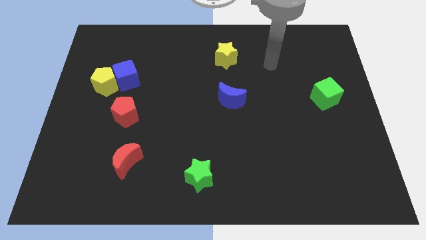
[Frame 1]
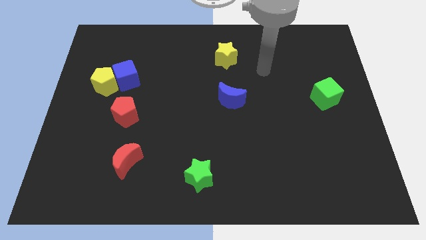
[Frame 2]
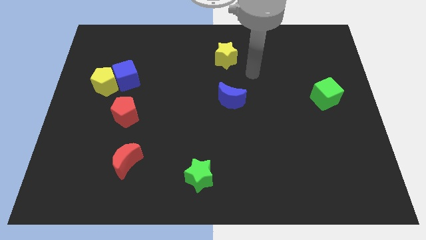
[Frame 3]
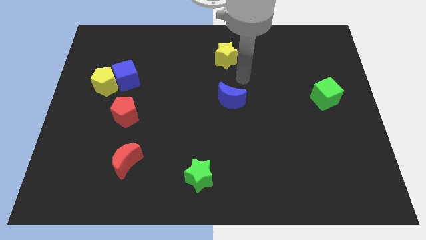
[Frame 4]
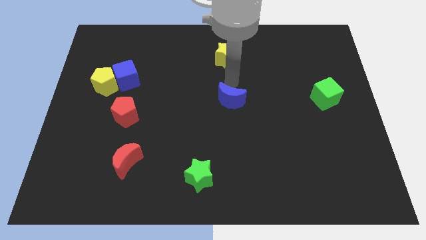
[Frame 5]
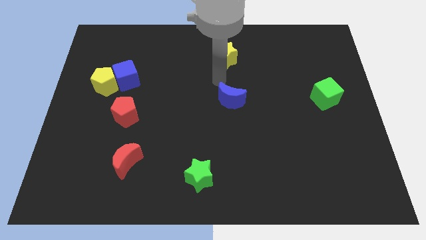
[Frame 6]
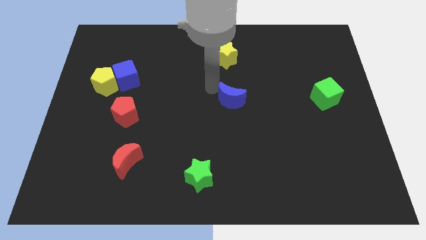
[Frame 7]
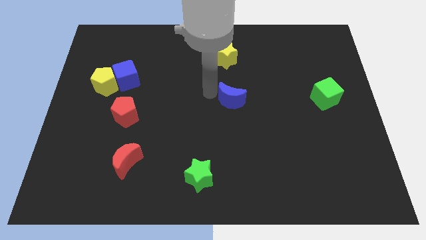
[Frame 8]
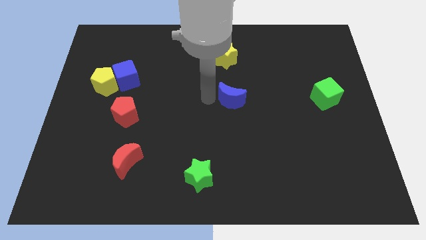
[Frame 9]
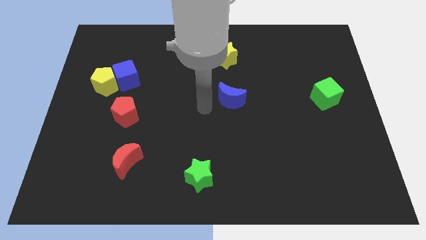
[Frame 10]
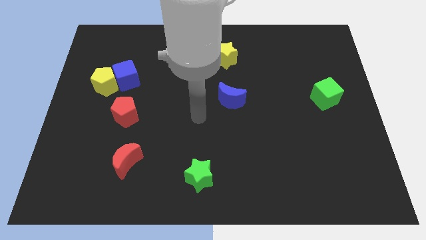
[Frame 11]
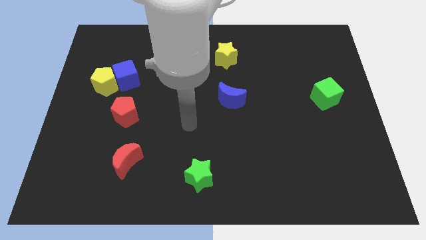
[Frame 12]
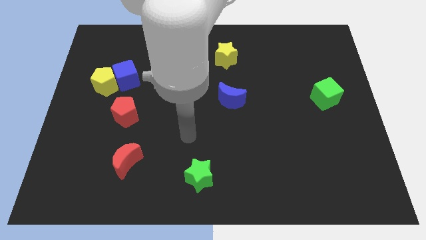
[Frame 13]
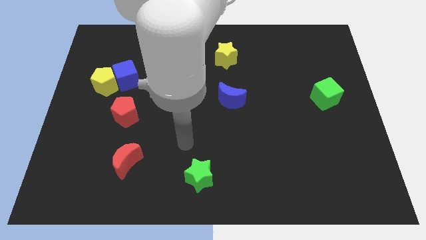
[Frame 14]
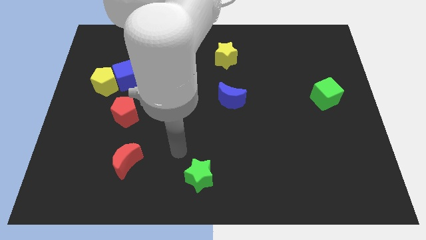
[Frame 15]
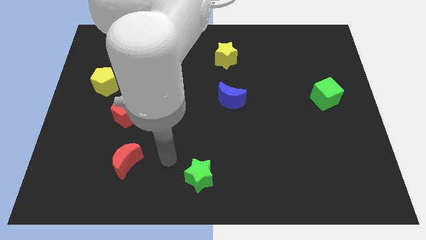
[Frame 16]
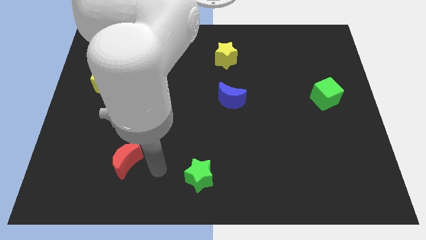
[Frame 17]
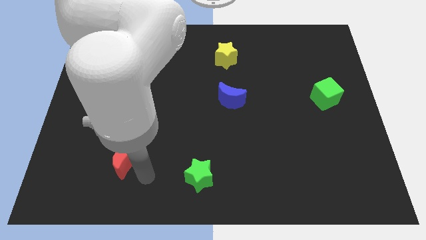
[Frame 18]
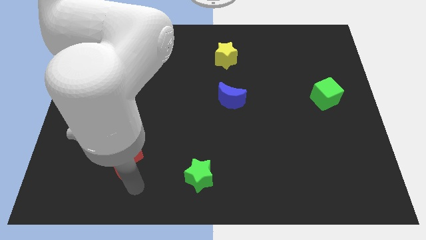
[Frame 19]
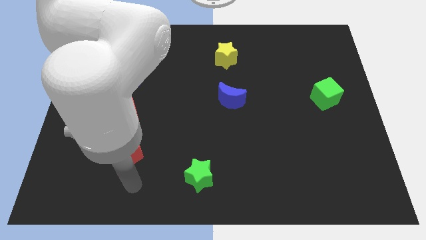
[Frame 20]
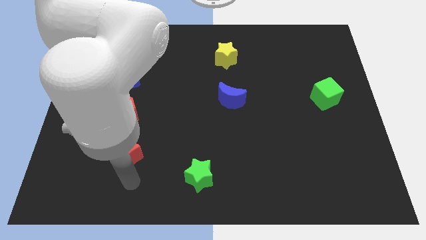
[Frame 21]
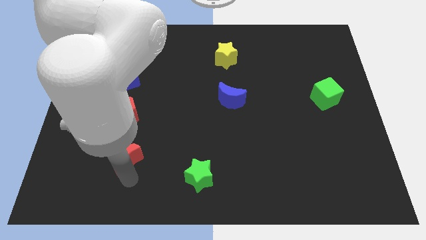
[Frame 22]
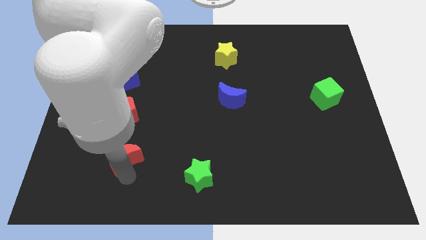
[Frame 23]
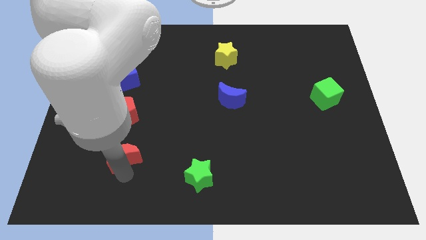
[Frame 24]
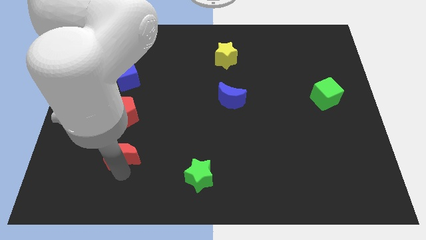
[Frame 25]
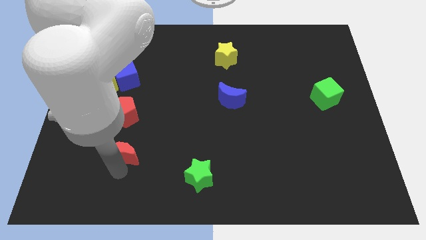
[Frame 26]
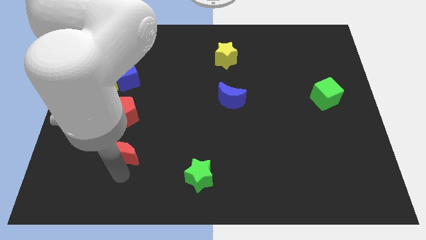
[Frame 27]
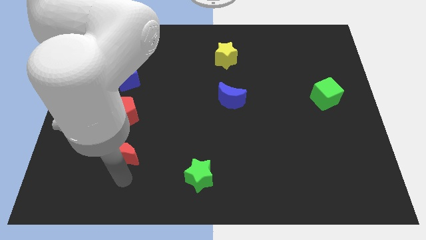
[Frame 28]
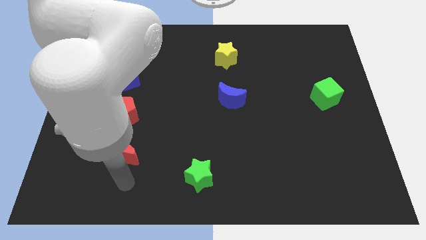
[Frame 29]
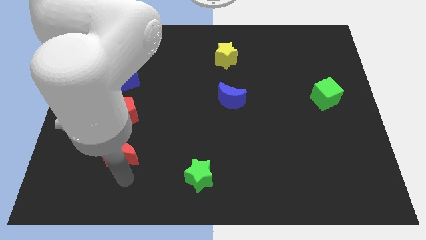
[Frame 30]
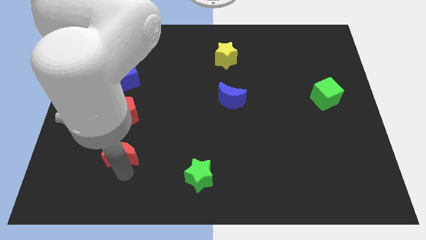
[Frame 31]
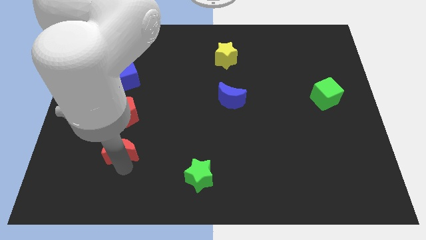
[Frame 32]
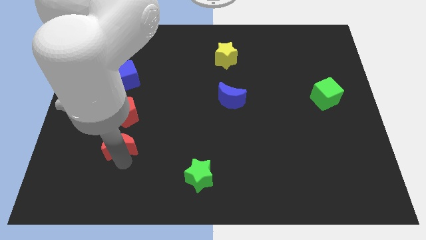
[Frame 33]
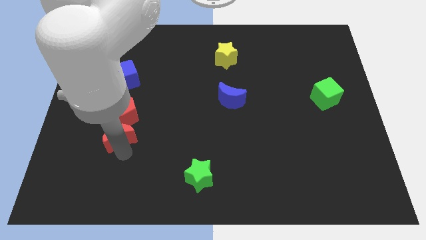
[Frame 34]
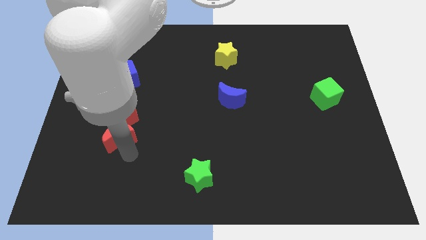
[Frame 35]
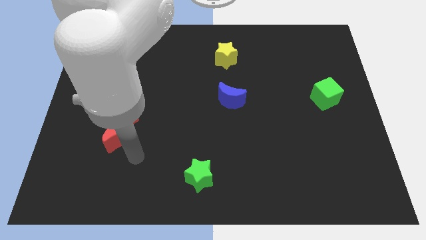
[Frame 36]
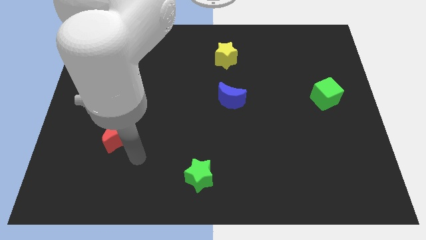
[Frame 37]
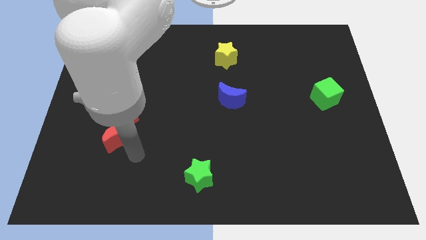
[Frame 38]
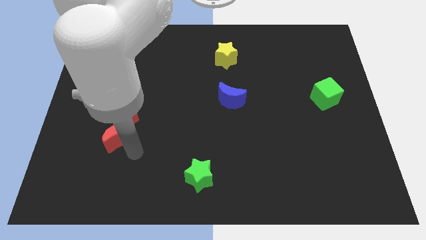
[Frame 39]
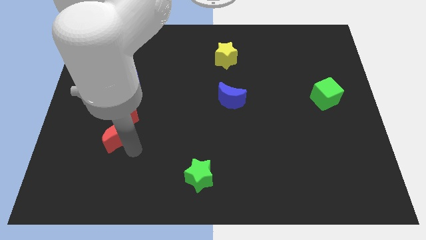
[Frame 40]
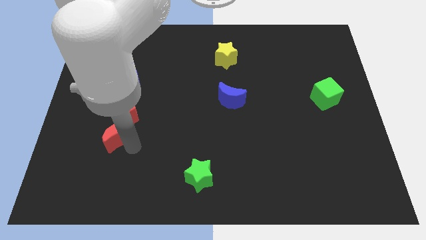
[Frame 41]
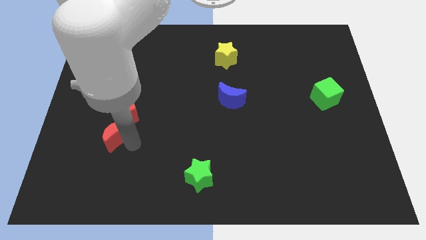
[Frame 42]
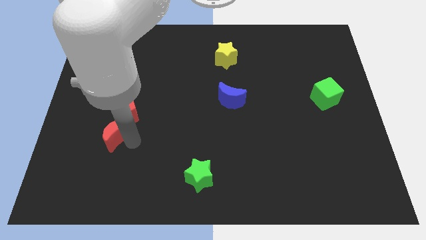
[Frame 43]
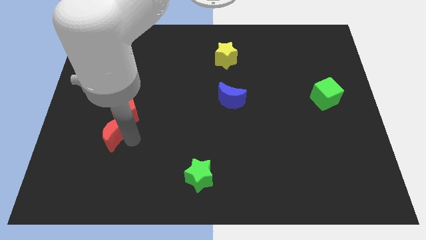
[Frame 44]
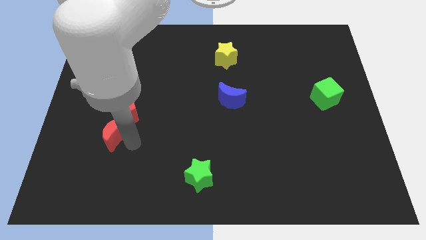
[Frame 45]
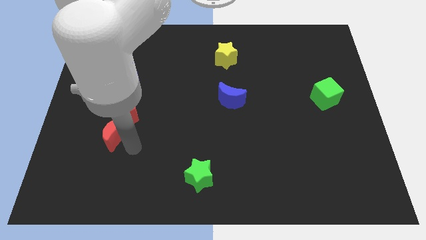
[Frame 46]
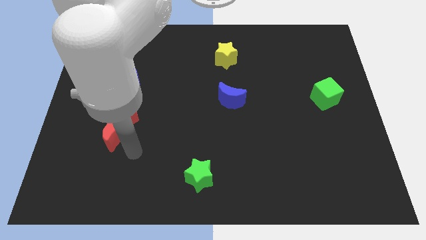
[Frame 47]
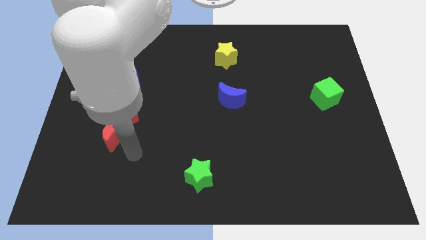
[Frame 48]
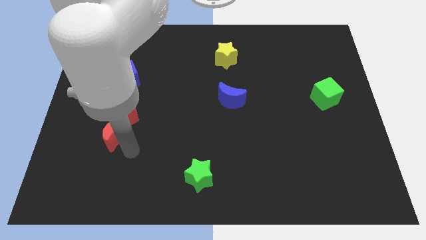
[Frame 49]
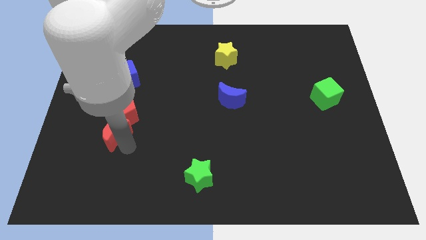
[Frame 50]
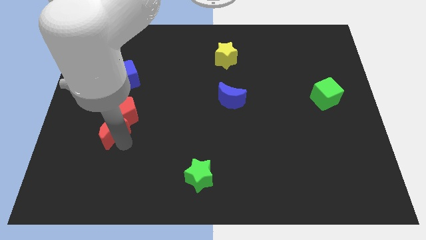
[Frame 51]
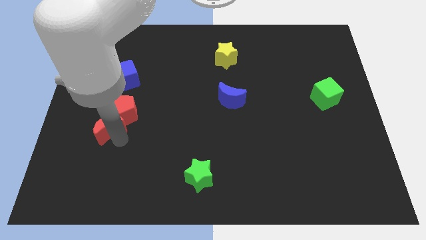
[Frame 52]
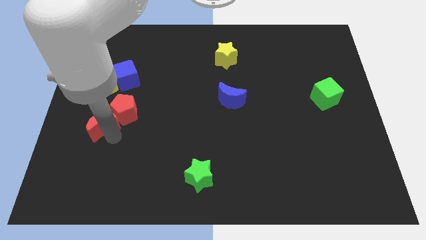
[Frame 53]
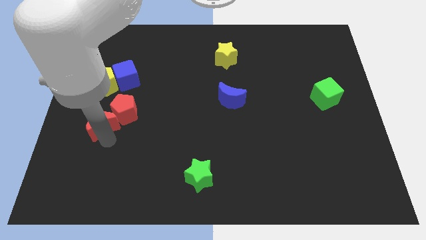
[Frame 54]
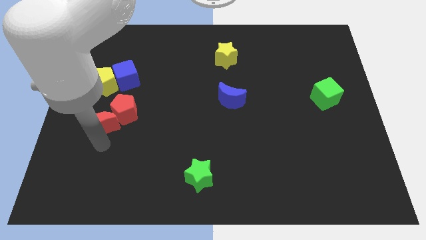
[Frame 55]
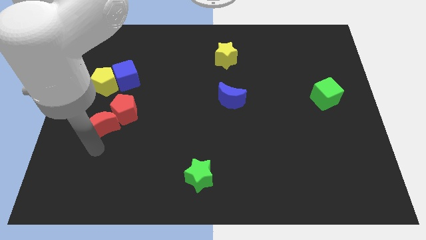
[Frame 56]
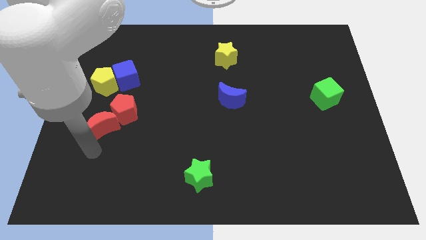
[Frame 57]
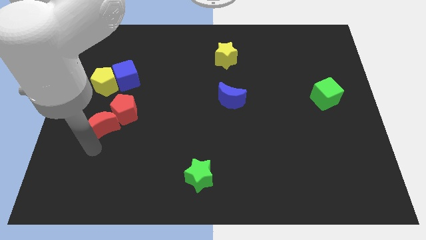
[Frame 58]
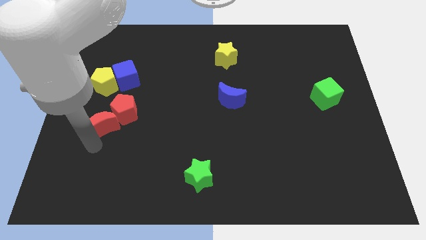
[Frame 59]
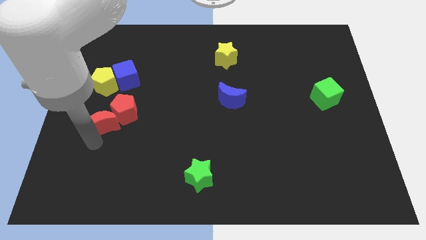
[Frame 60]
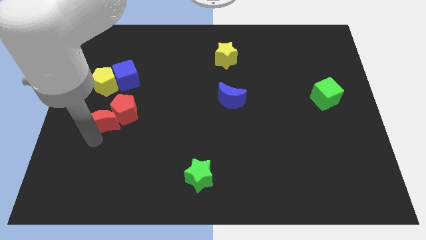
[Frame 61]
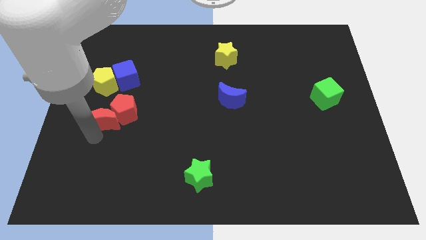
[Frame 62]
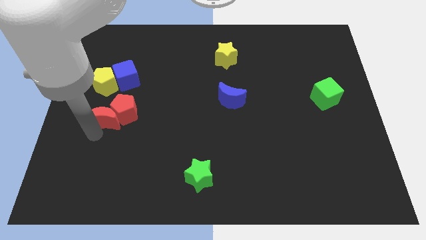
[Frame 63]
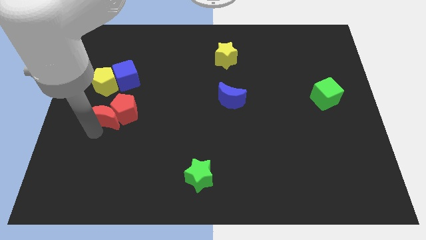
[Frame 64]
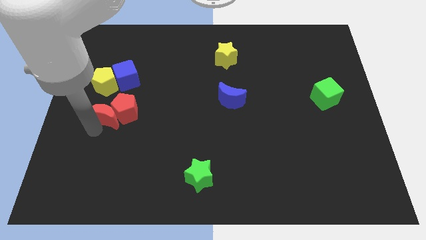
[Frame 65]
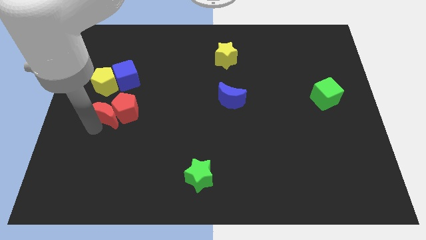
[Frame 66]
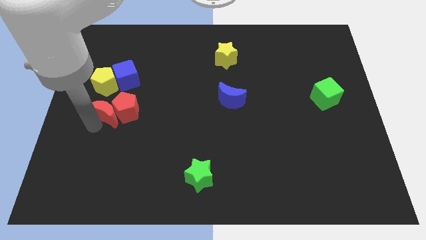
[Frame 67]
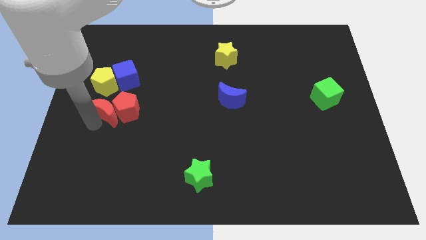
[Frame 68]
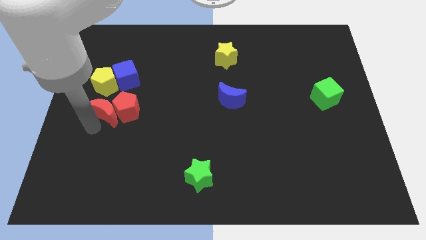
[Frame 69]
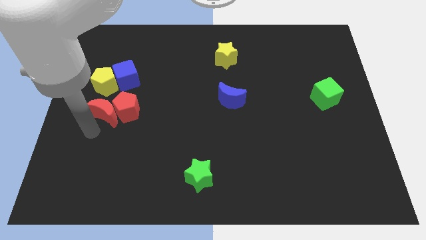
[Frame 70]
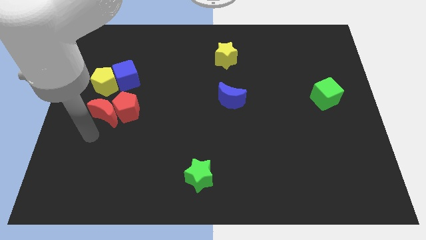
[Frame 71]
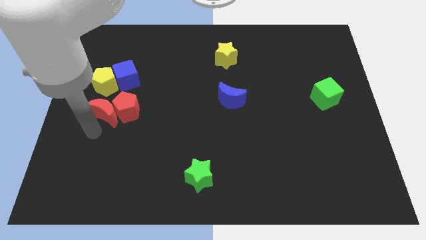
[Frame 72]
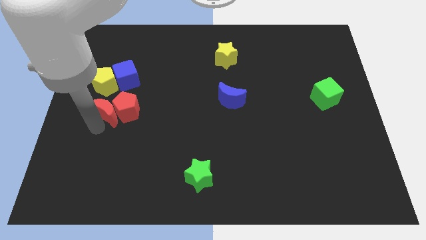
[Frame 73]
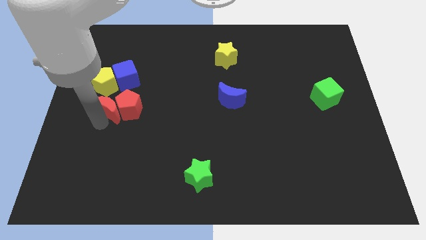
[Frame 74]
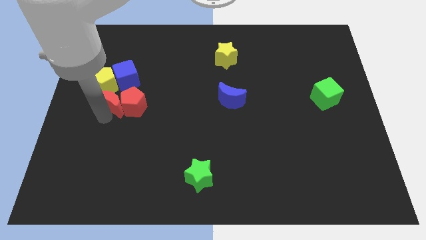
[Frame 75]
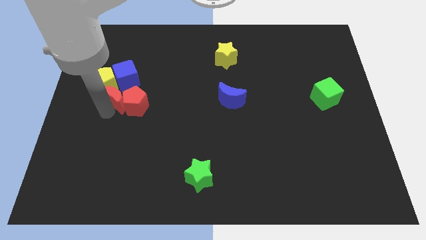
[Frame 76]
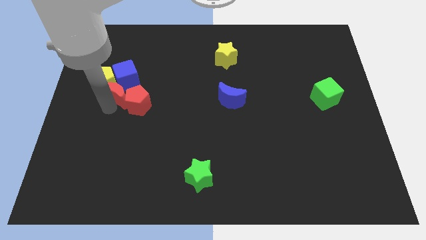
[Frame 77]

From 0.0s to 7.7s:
push the red moon towards the blue cube
